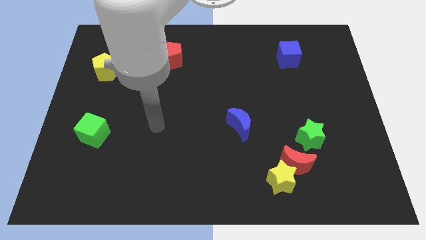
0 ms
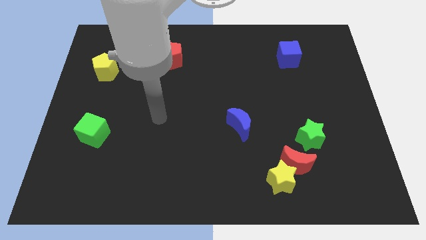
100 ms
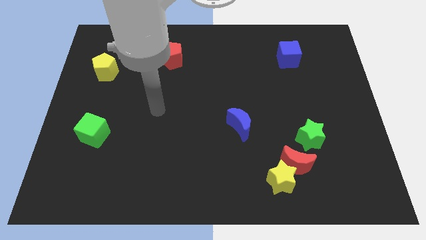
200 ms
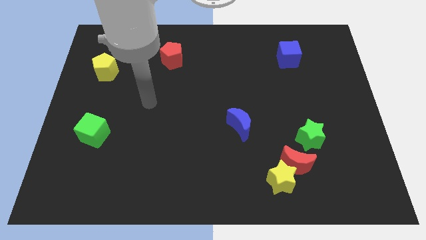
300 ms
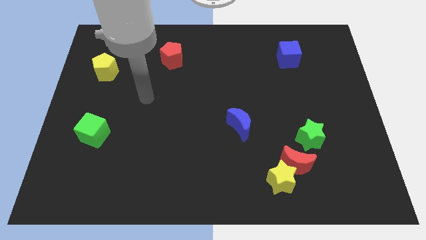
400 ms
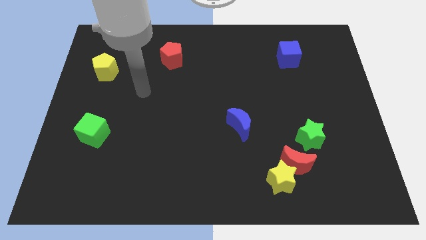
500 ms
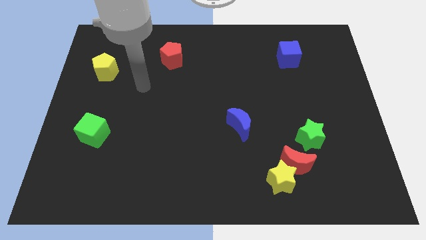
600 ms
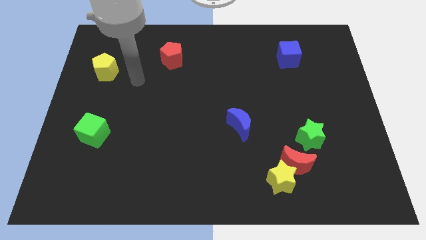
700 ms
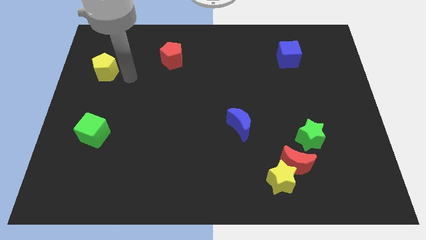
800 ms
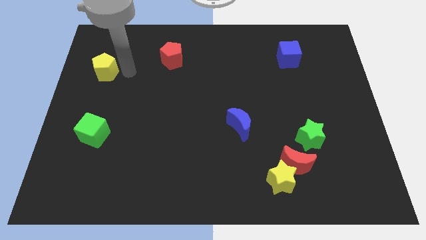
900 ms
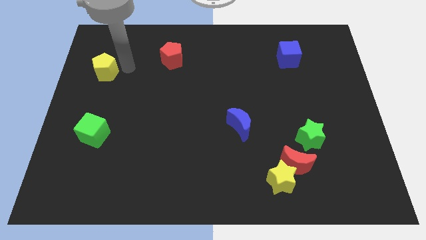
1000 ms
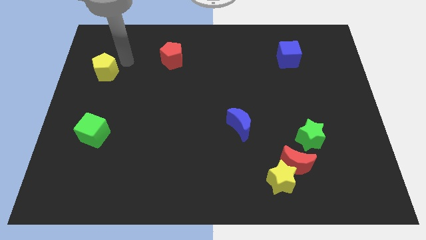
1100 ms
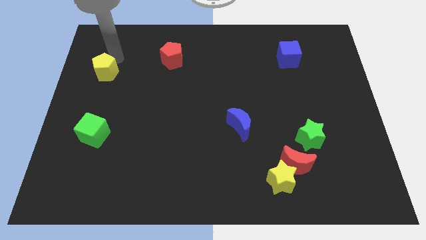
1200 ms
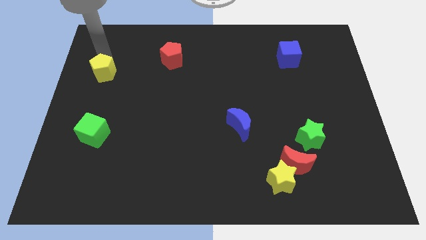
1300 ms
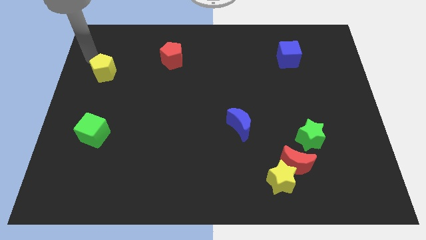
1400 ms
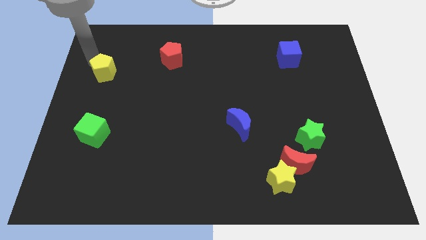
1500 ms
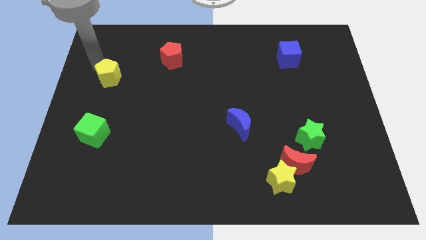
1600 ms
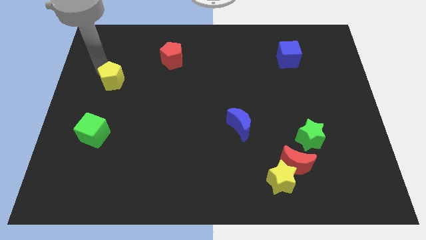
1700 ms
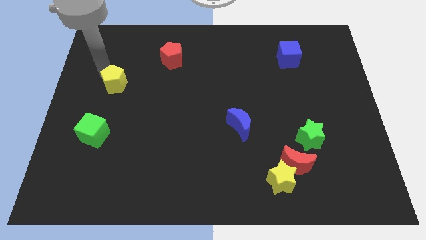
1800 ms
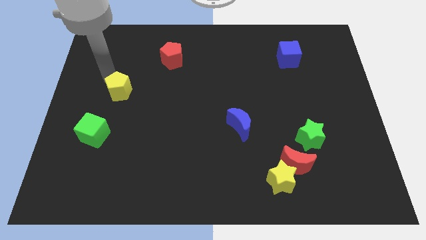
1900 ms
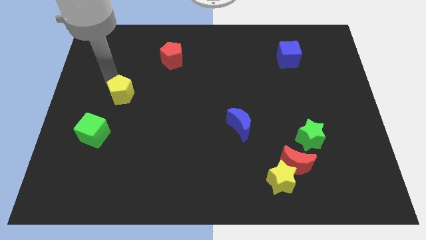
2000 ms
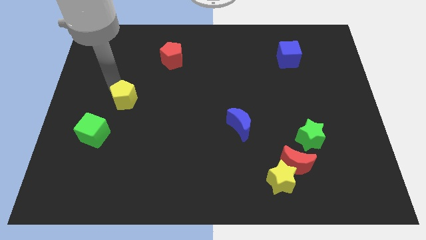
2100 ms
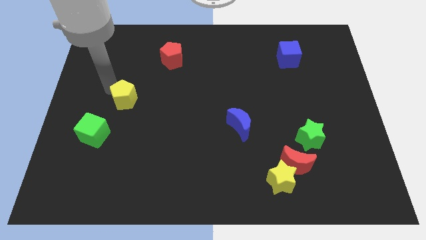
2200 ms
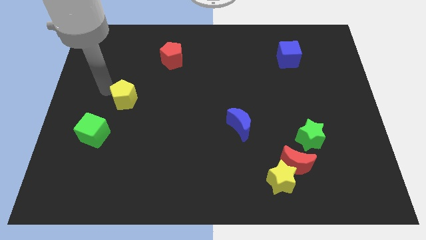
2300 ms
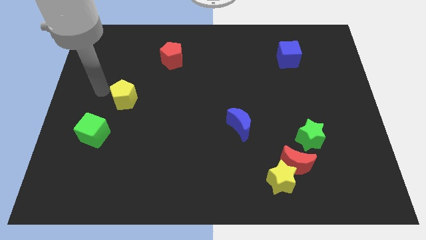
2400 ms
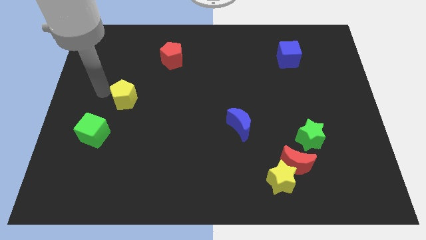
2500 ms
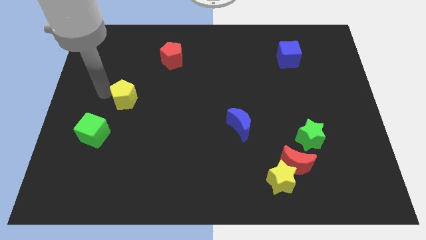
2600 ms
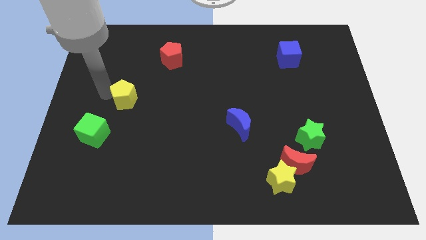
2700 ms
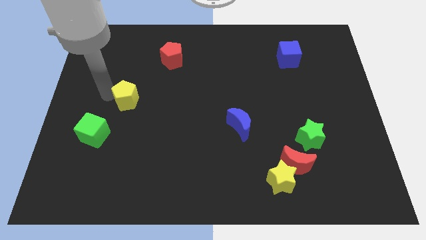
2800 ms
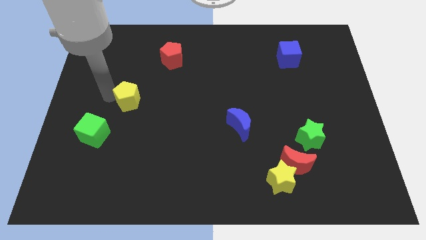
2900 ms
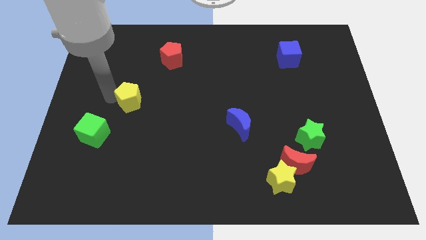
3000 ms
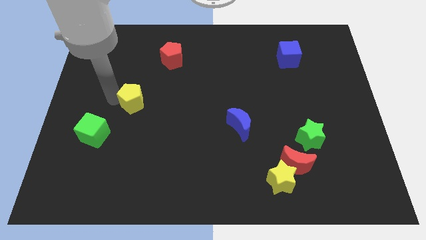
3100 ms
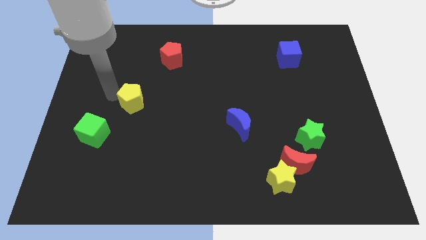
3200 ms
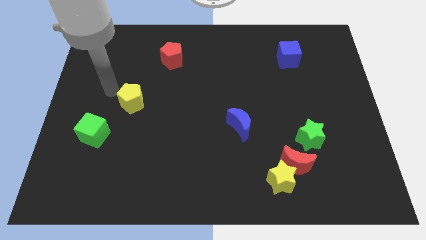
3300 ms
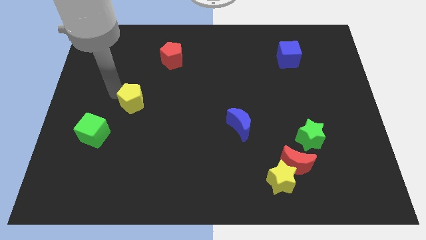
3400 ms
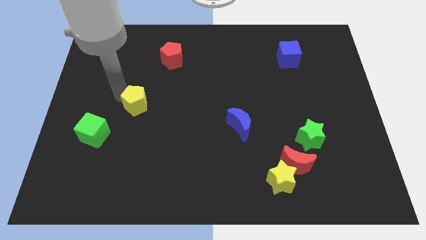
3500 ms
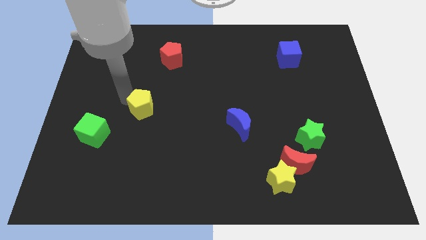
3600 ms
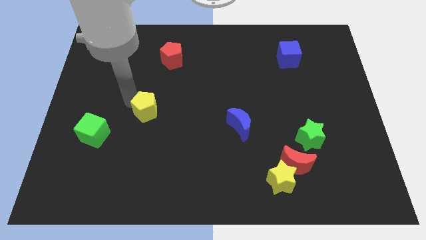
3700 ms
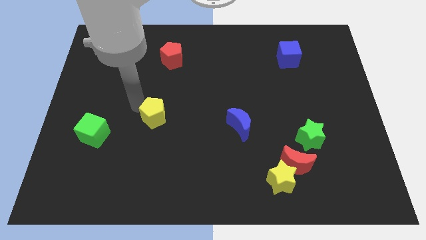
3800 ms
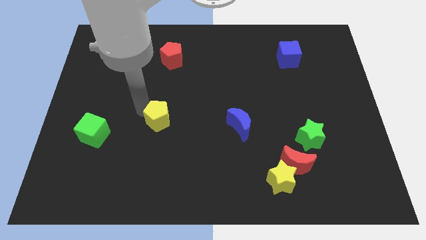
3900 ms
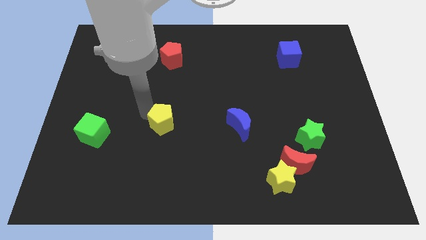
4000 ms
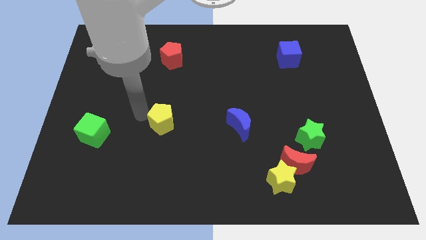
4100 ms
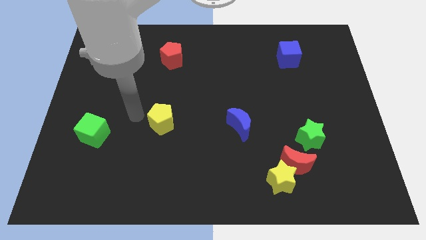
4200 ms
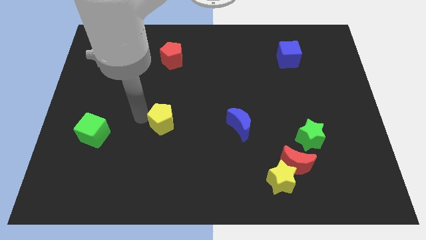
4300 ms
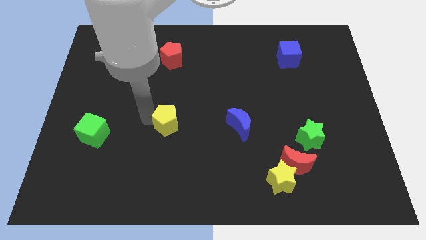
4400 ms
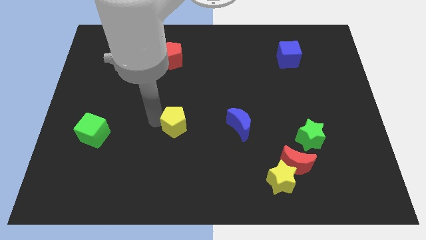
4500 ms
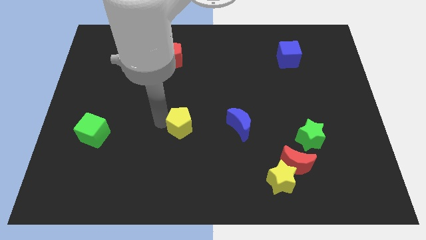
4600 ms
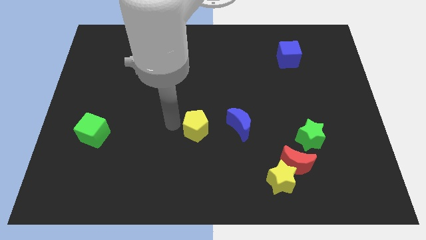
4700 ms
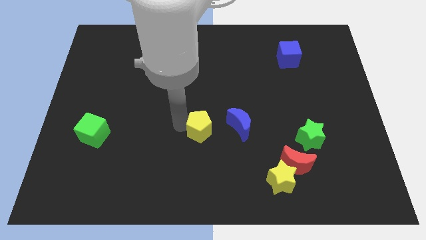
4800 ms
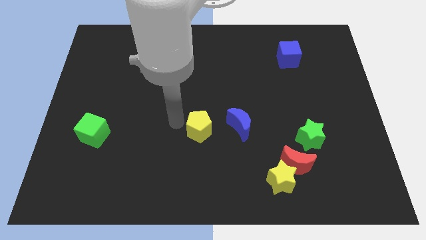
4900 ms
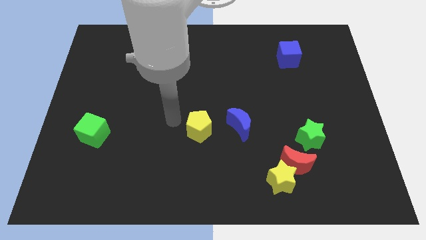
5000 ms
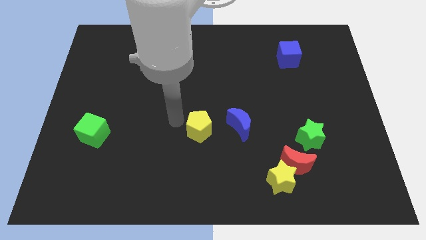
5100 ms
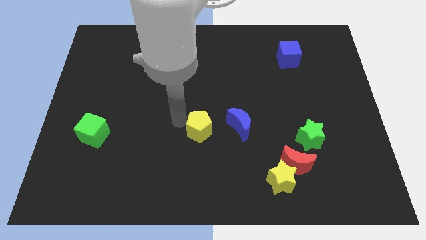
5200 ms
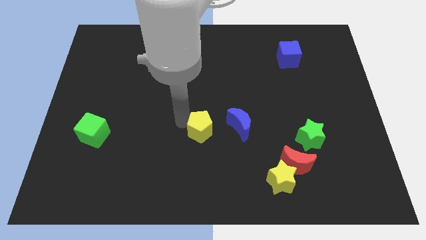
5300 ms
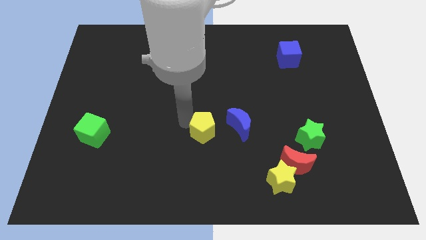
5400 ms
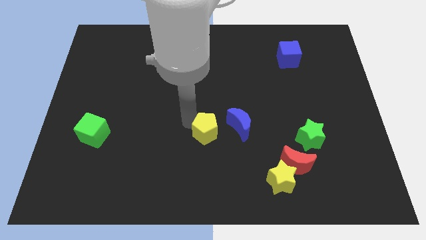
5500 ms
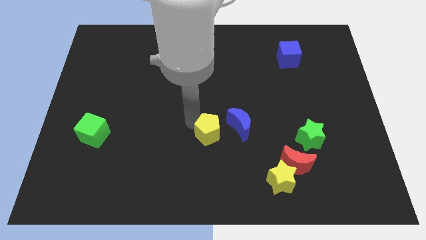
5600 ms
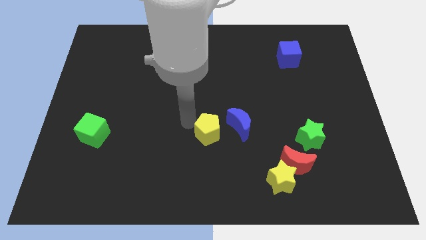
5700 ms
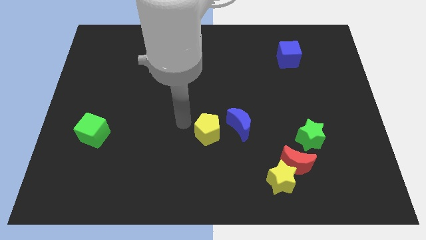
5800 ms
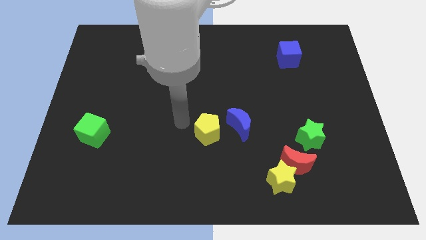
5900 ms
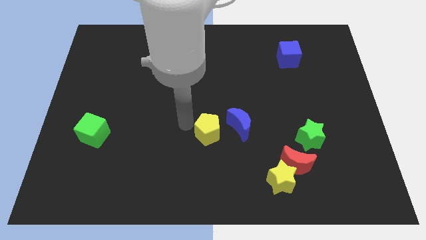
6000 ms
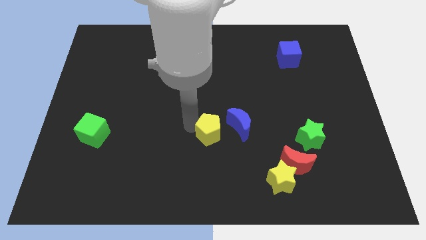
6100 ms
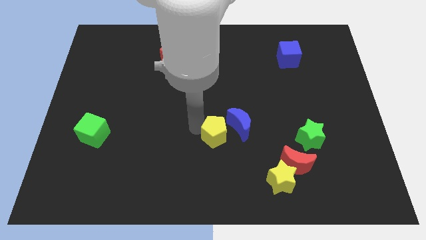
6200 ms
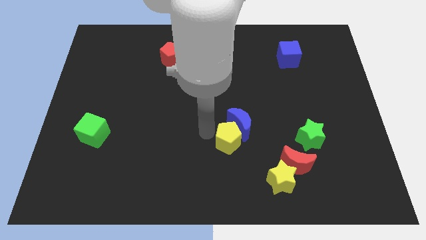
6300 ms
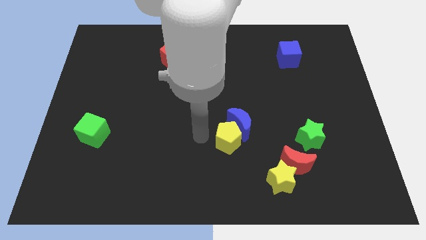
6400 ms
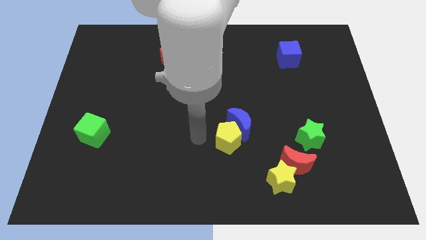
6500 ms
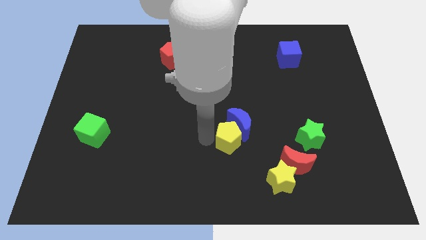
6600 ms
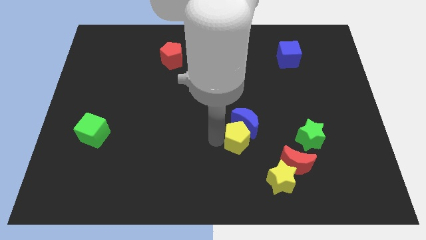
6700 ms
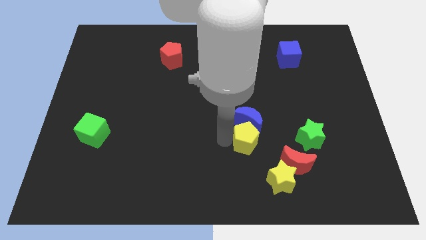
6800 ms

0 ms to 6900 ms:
put the yellow pentagon to the top left side of the red moon
